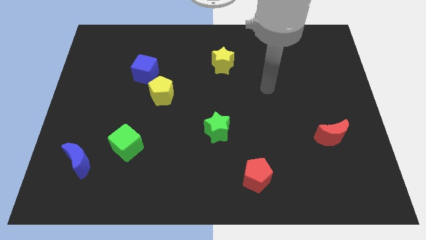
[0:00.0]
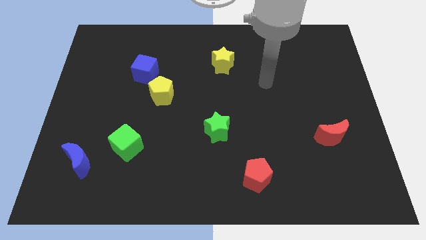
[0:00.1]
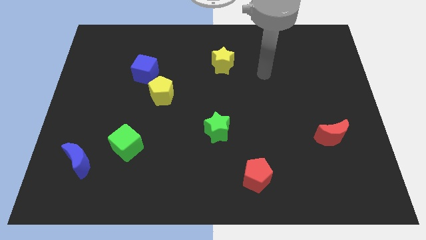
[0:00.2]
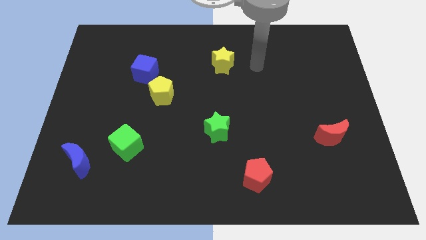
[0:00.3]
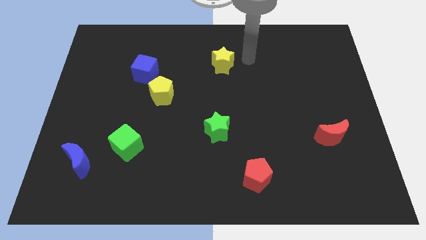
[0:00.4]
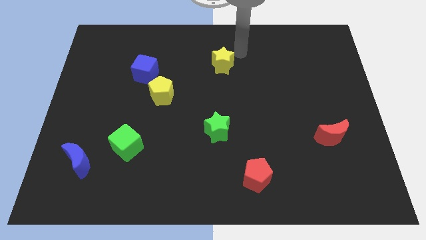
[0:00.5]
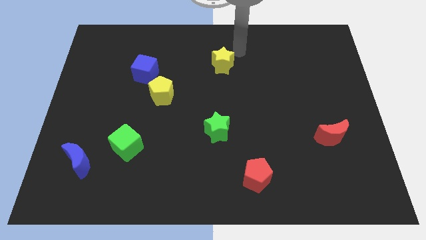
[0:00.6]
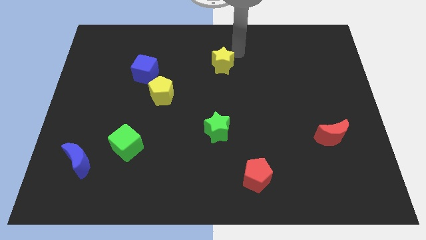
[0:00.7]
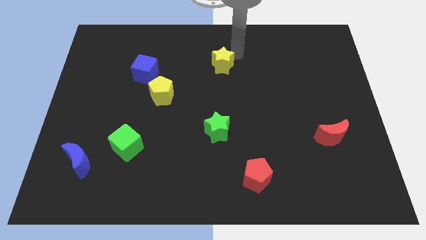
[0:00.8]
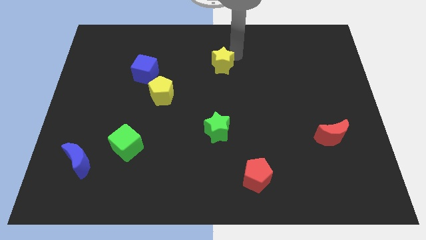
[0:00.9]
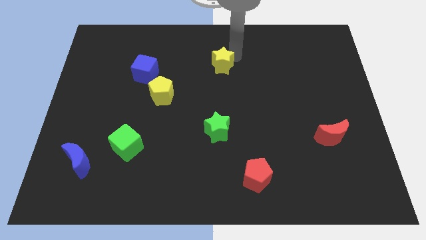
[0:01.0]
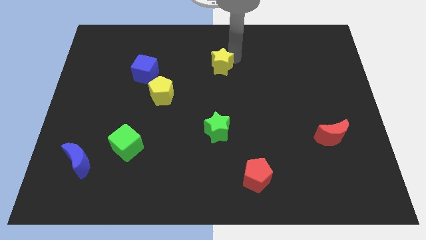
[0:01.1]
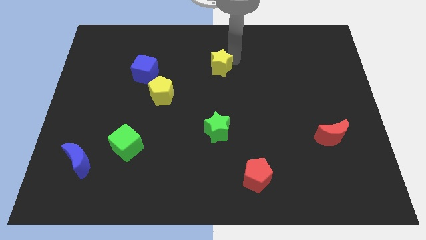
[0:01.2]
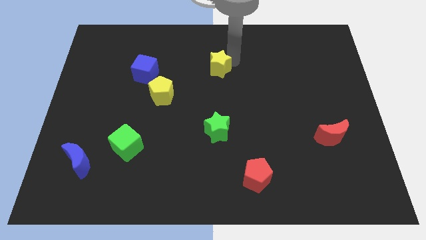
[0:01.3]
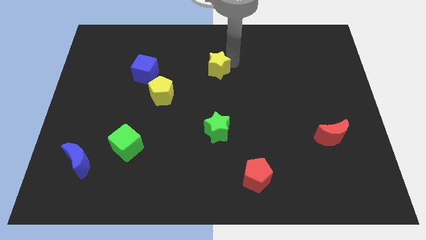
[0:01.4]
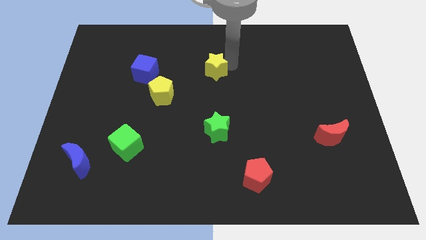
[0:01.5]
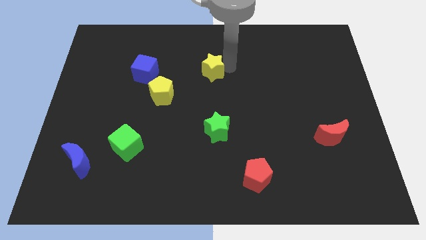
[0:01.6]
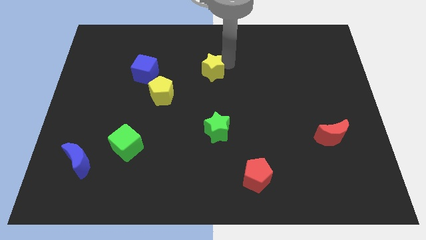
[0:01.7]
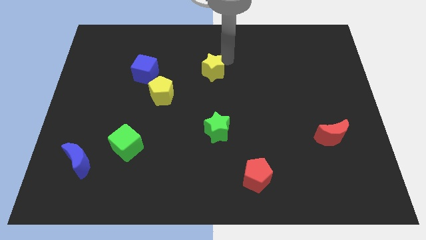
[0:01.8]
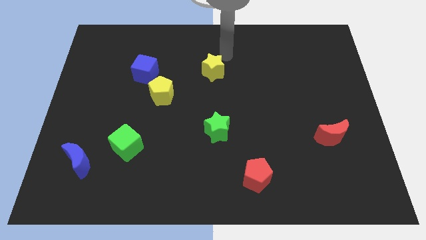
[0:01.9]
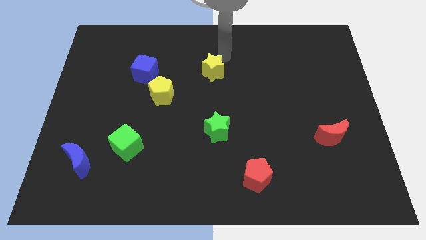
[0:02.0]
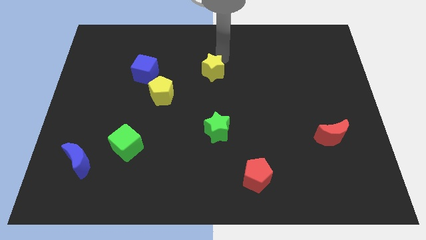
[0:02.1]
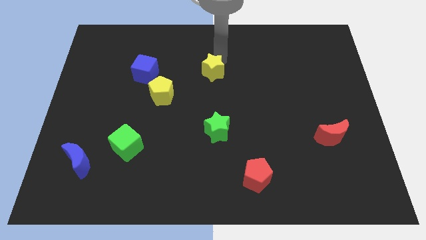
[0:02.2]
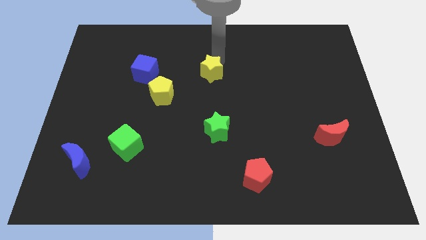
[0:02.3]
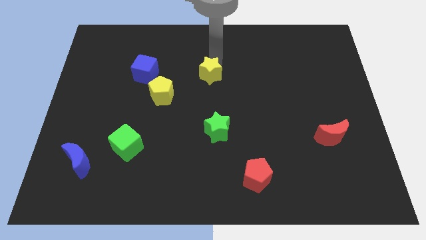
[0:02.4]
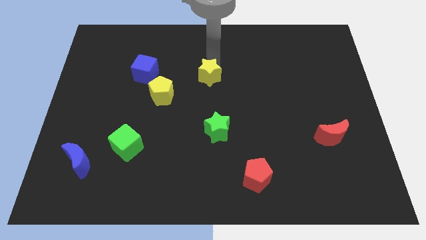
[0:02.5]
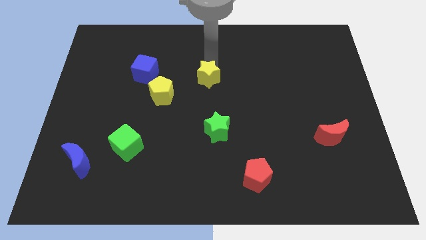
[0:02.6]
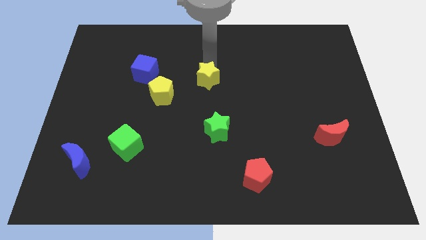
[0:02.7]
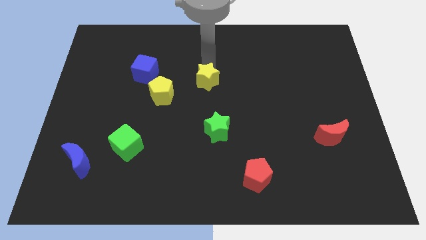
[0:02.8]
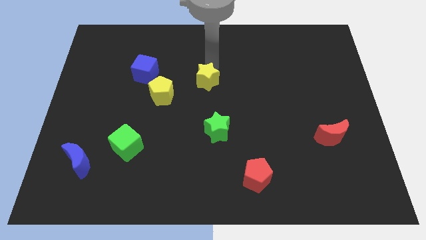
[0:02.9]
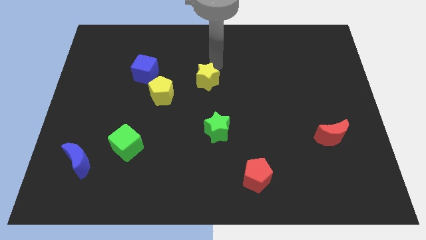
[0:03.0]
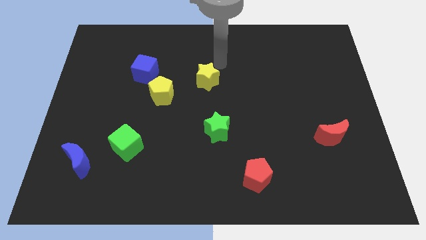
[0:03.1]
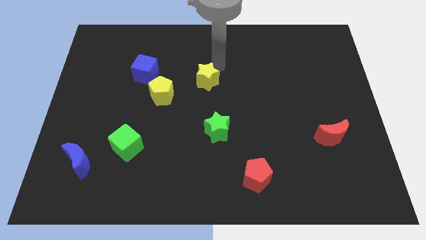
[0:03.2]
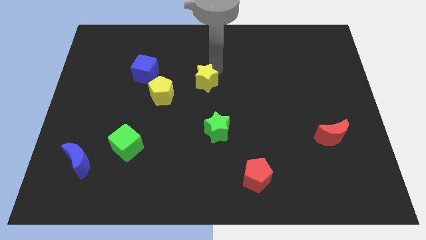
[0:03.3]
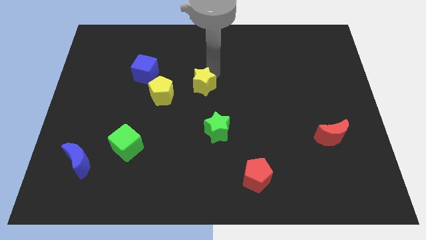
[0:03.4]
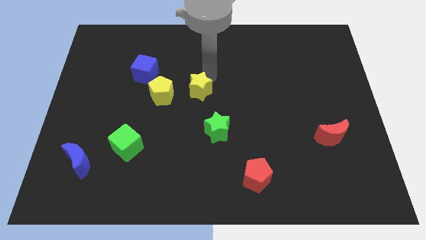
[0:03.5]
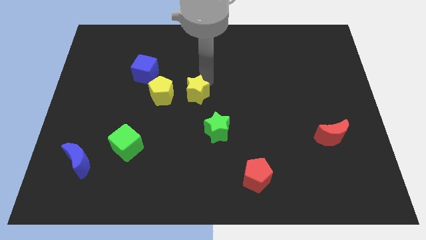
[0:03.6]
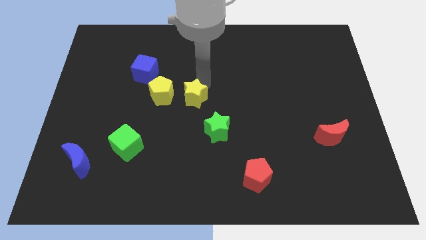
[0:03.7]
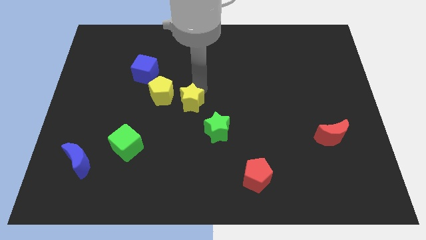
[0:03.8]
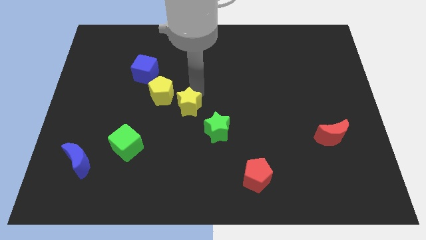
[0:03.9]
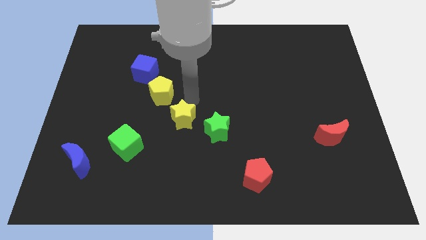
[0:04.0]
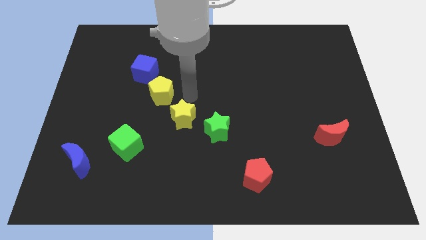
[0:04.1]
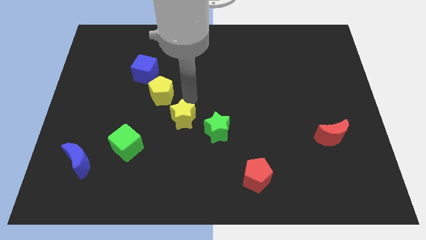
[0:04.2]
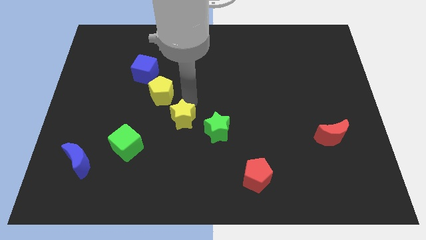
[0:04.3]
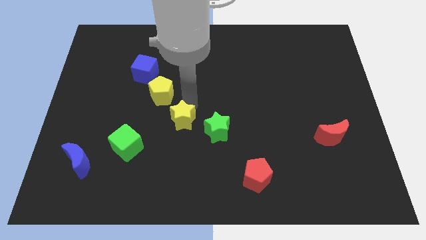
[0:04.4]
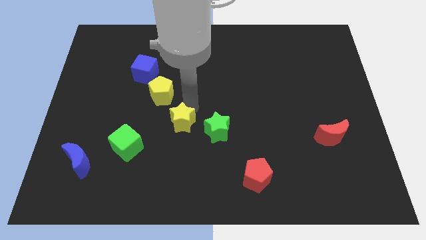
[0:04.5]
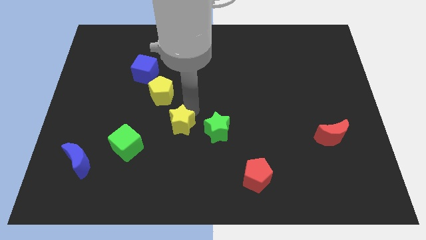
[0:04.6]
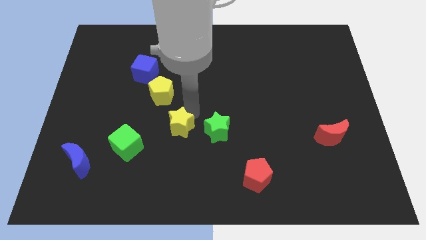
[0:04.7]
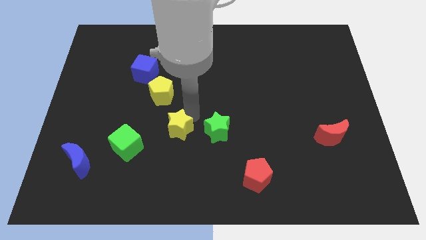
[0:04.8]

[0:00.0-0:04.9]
slide the yellow star to the right of the green cube

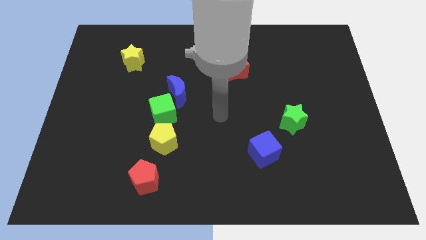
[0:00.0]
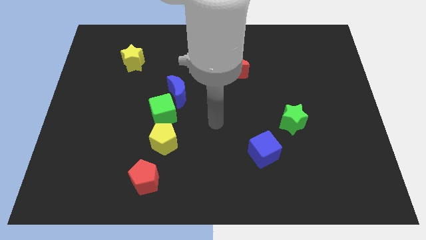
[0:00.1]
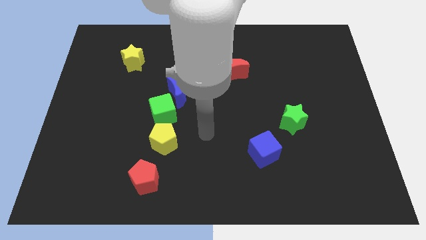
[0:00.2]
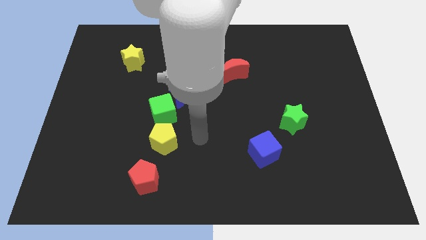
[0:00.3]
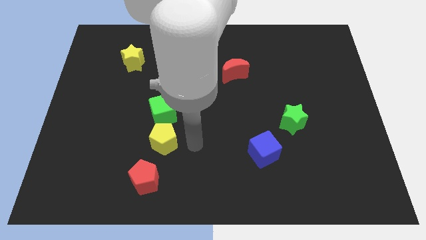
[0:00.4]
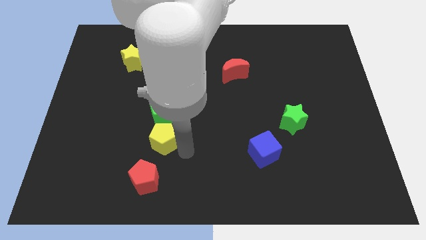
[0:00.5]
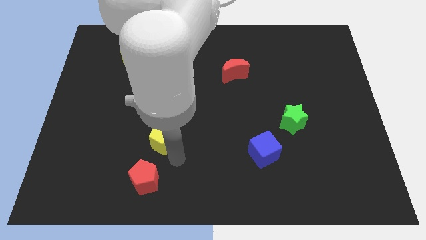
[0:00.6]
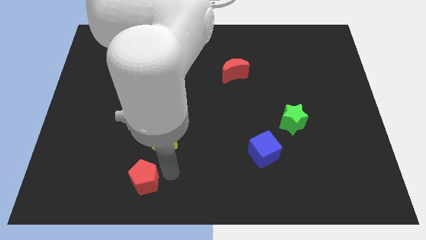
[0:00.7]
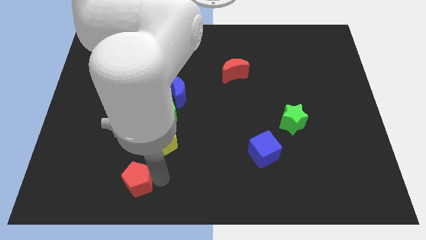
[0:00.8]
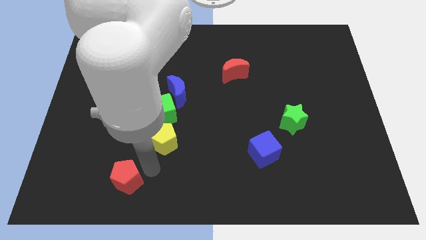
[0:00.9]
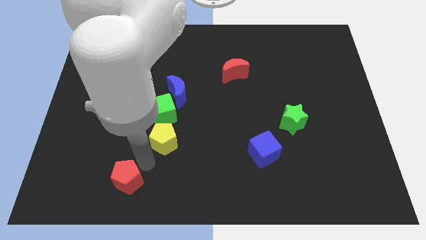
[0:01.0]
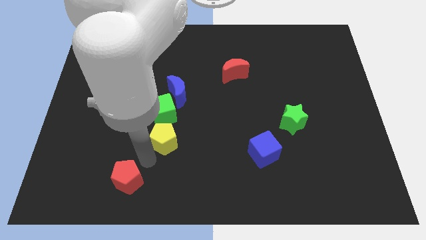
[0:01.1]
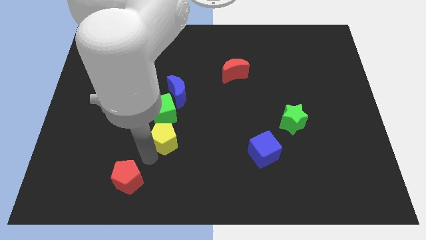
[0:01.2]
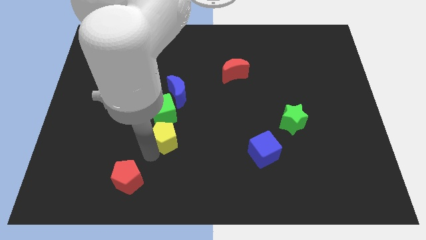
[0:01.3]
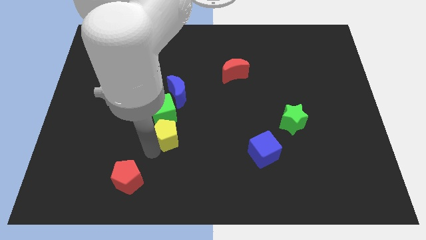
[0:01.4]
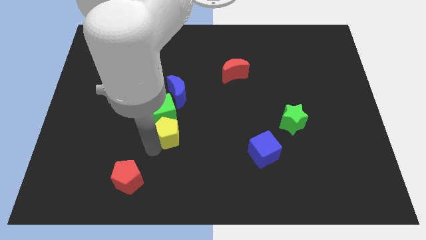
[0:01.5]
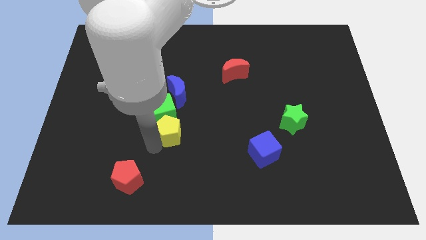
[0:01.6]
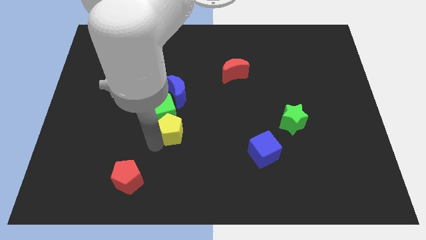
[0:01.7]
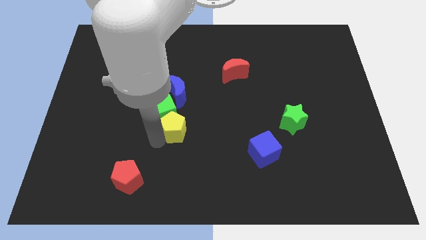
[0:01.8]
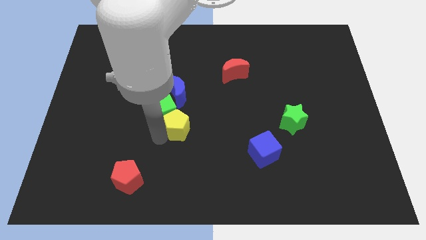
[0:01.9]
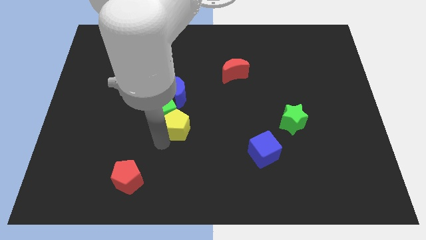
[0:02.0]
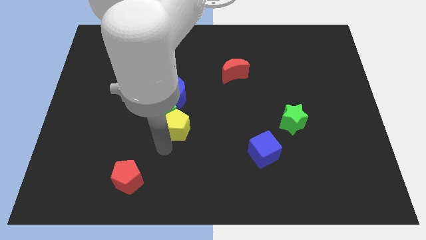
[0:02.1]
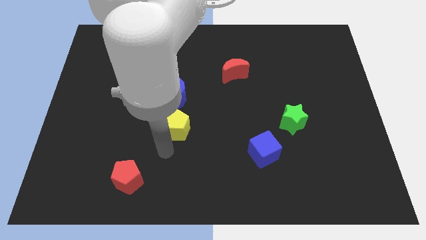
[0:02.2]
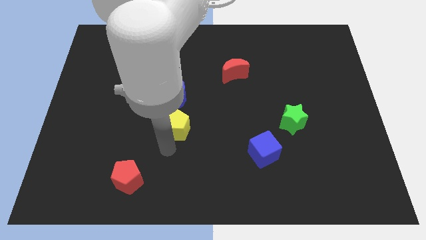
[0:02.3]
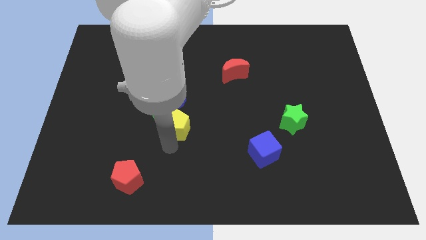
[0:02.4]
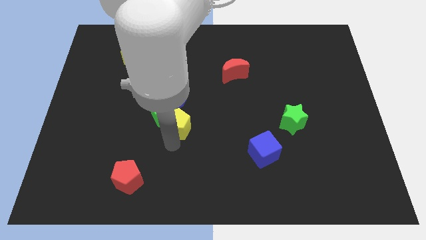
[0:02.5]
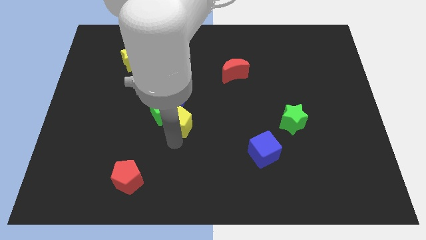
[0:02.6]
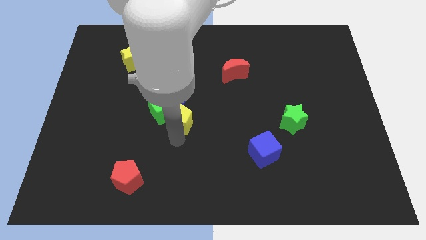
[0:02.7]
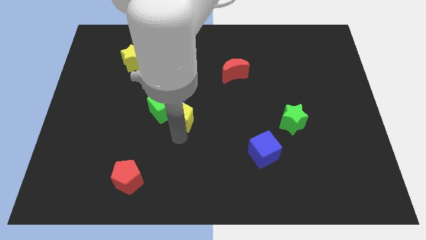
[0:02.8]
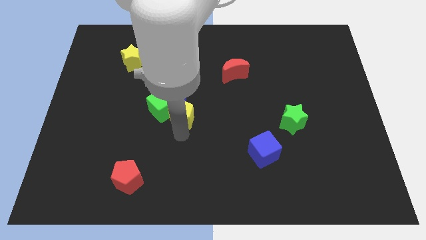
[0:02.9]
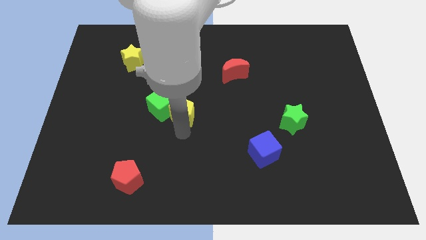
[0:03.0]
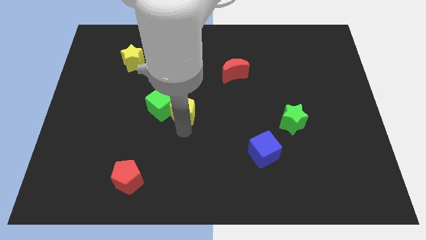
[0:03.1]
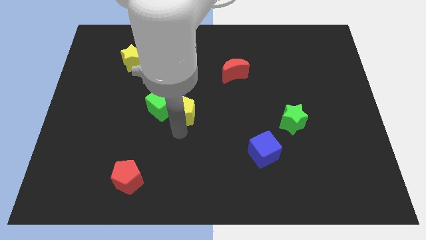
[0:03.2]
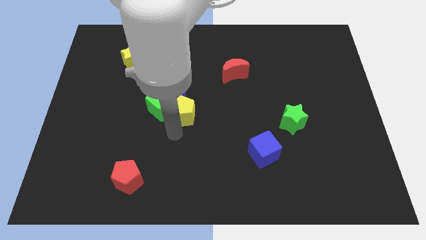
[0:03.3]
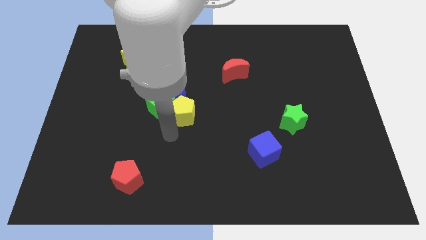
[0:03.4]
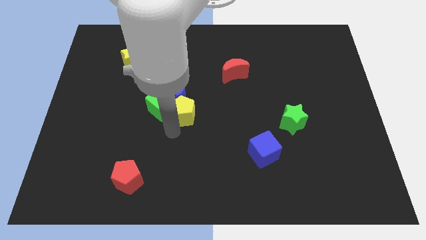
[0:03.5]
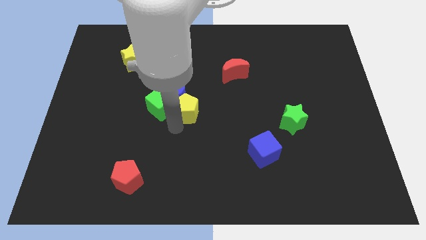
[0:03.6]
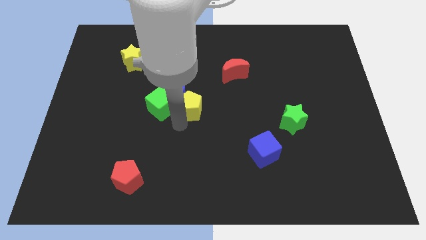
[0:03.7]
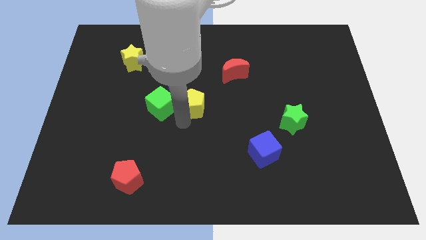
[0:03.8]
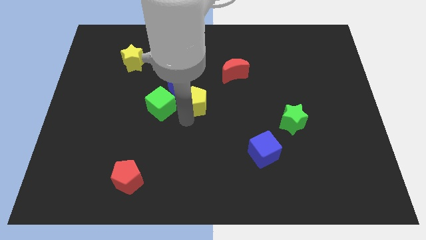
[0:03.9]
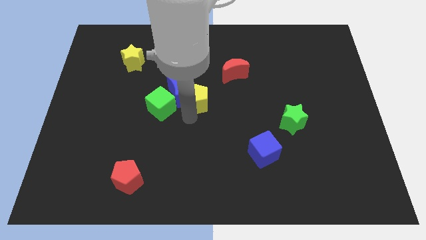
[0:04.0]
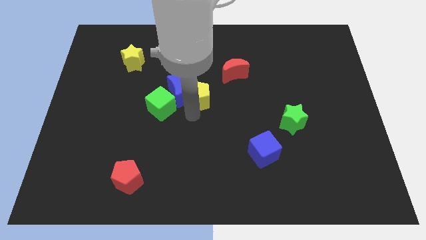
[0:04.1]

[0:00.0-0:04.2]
put the yellow pentagon to the top right side of the blue moon
